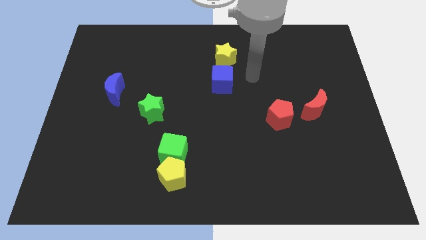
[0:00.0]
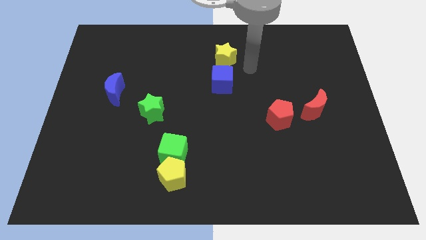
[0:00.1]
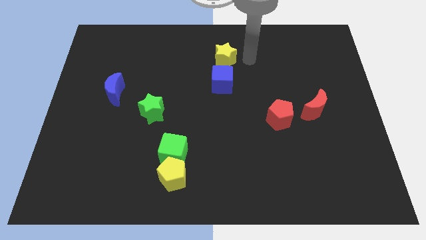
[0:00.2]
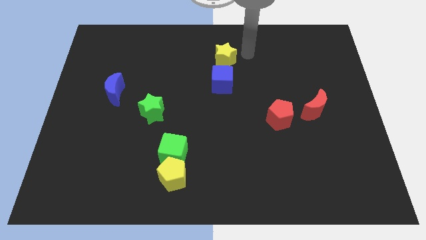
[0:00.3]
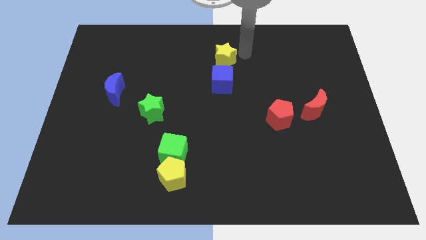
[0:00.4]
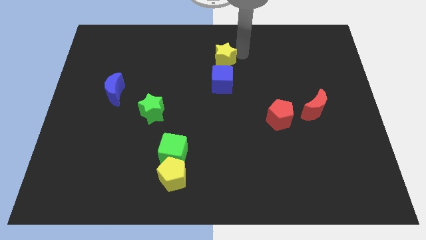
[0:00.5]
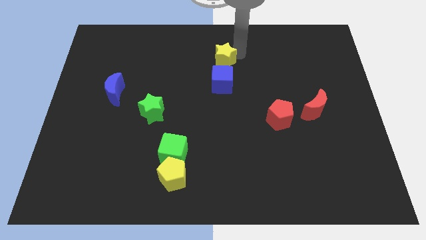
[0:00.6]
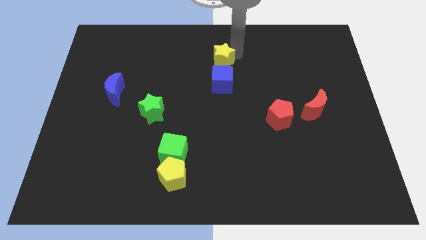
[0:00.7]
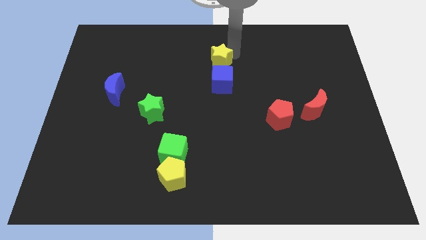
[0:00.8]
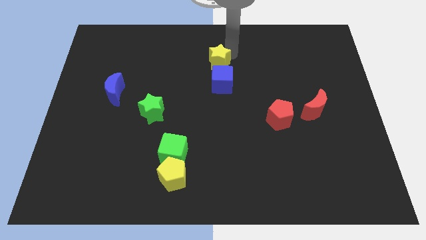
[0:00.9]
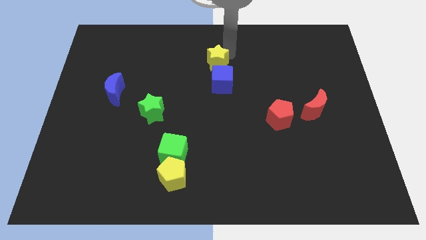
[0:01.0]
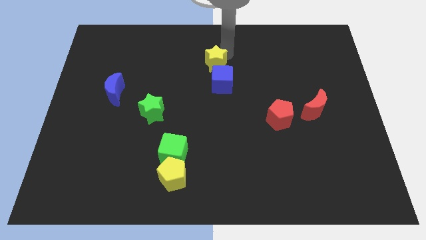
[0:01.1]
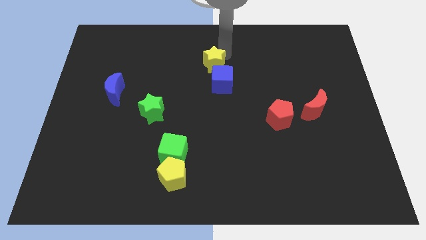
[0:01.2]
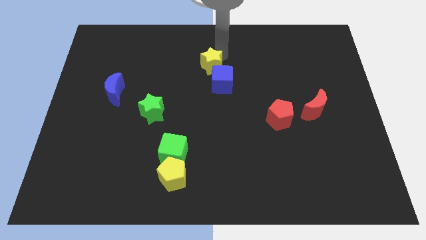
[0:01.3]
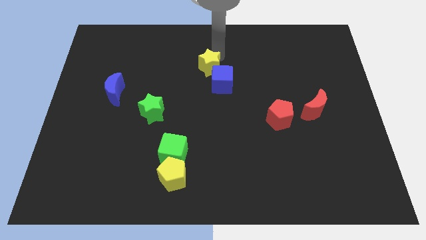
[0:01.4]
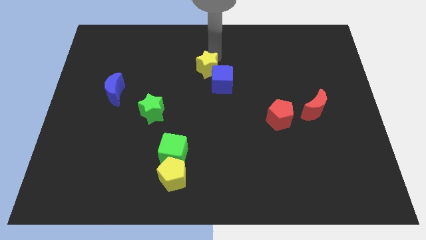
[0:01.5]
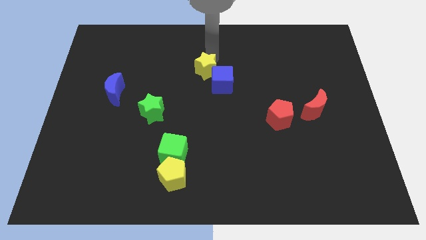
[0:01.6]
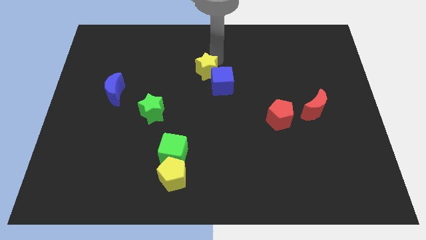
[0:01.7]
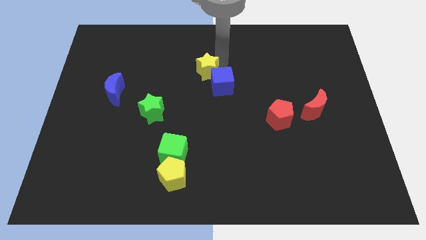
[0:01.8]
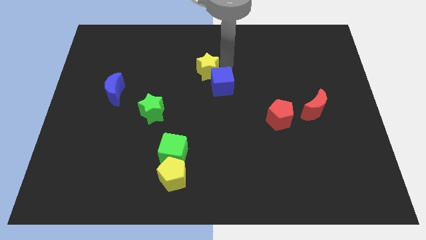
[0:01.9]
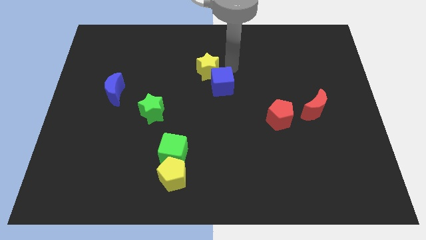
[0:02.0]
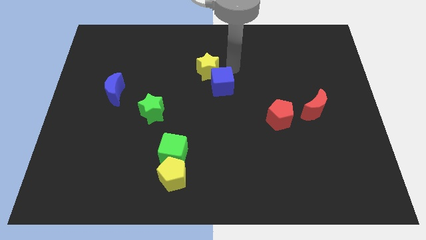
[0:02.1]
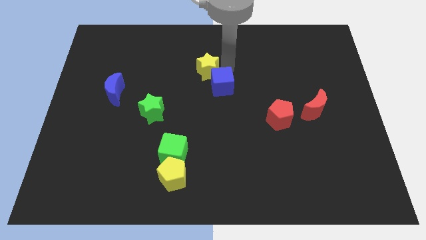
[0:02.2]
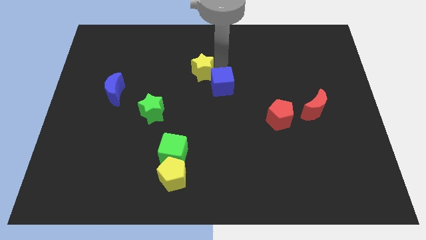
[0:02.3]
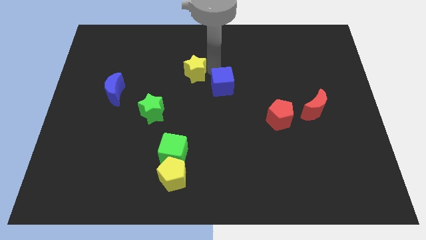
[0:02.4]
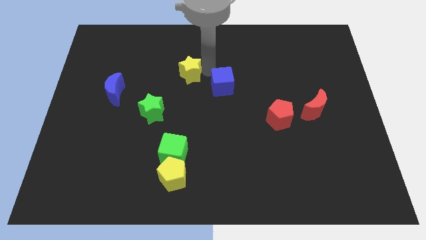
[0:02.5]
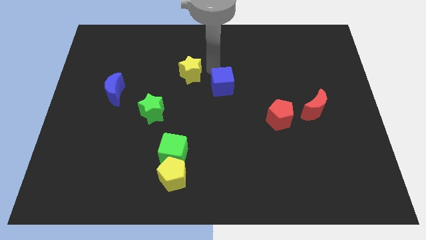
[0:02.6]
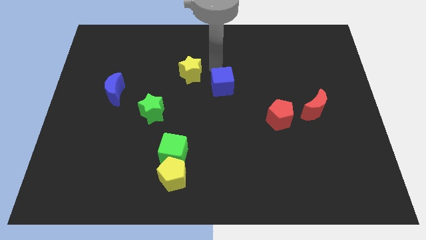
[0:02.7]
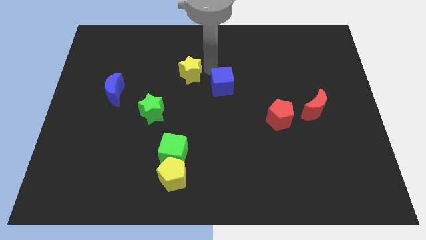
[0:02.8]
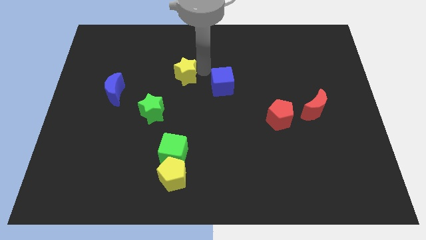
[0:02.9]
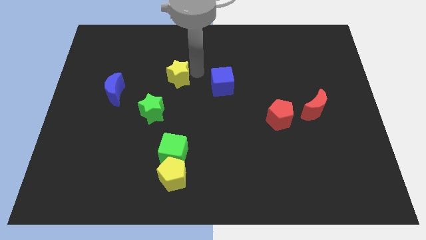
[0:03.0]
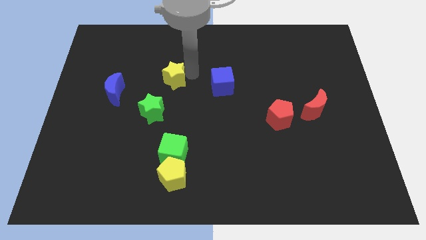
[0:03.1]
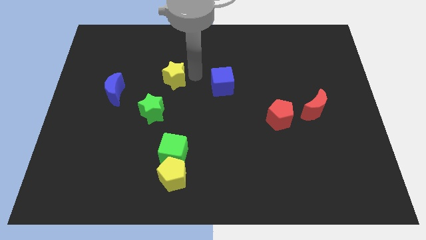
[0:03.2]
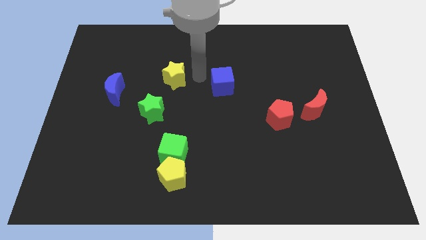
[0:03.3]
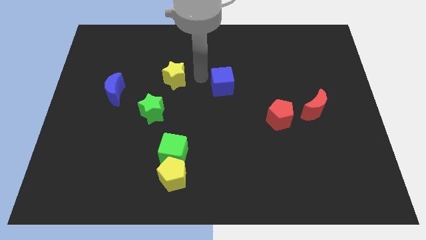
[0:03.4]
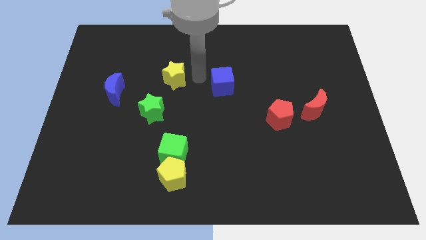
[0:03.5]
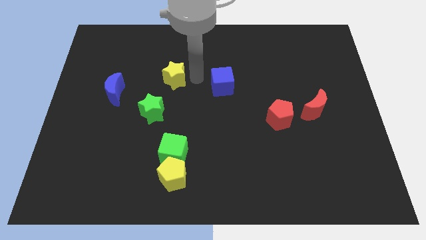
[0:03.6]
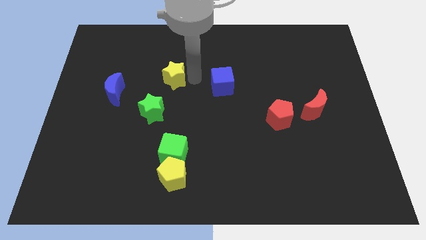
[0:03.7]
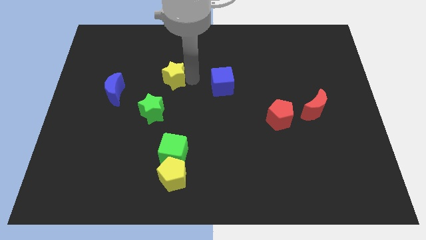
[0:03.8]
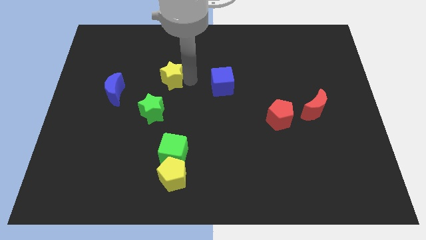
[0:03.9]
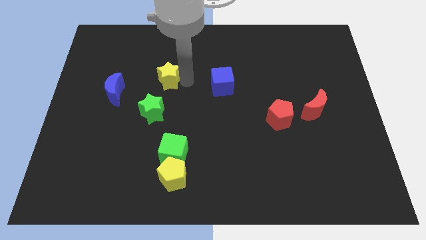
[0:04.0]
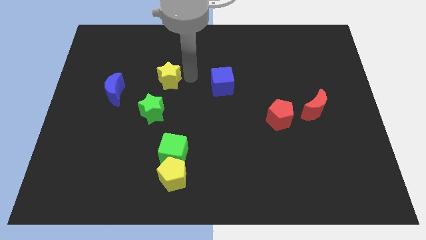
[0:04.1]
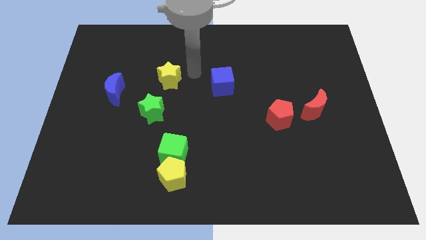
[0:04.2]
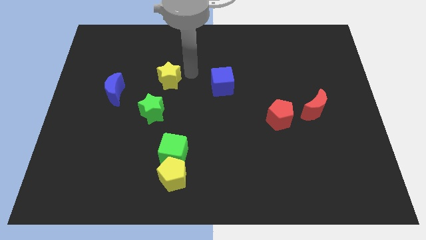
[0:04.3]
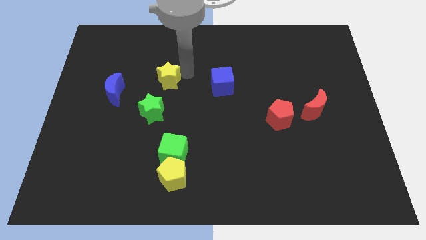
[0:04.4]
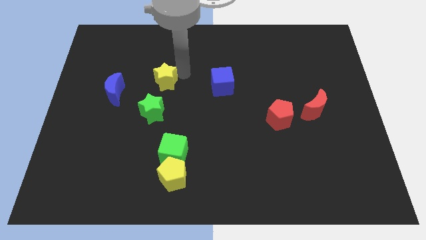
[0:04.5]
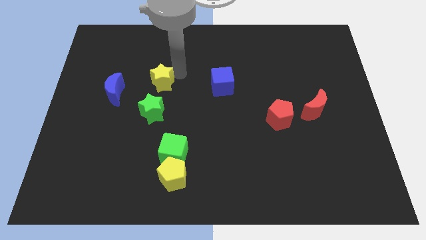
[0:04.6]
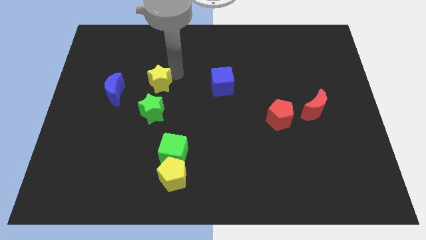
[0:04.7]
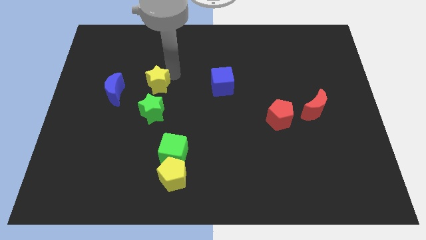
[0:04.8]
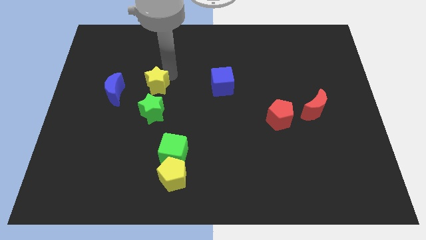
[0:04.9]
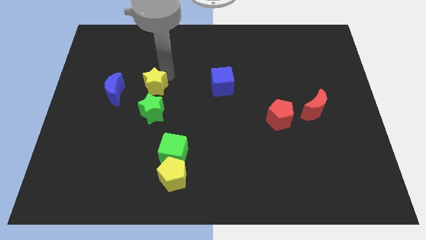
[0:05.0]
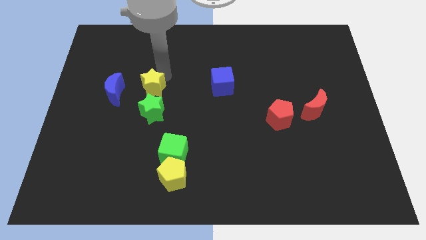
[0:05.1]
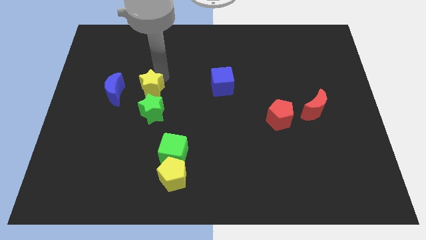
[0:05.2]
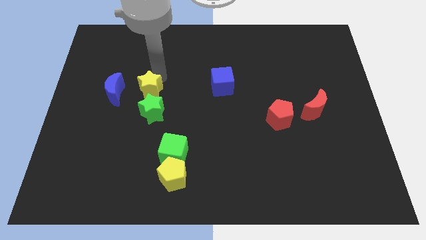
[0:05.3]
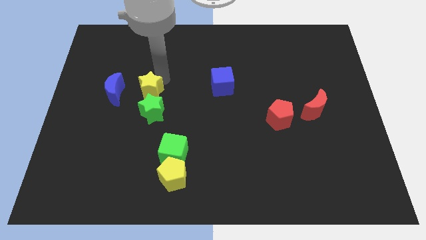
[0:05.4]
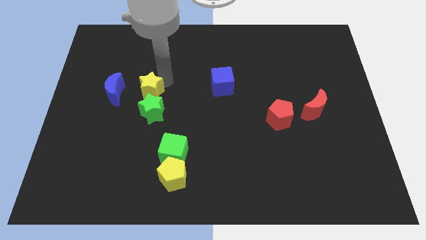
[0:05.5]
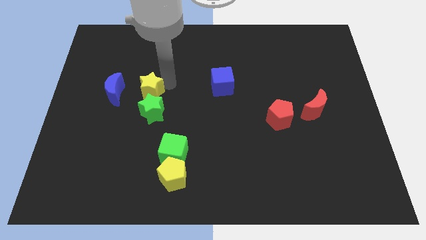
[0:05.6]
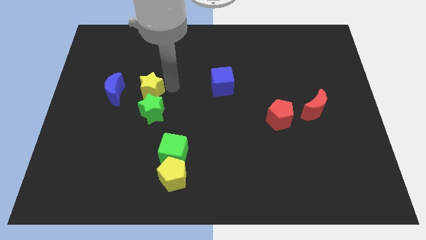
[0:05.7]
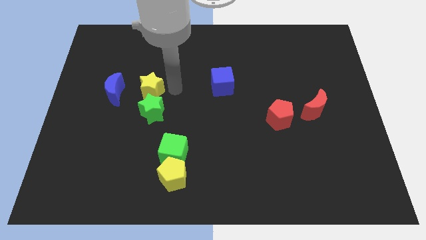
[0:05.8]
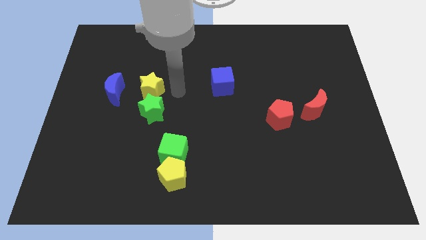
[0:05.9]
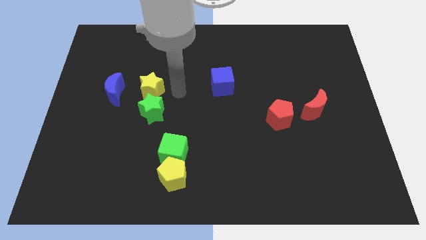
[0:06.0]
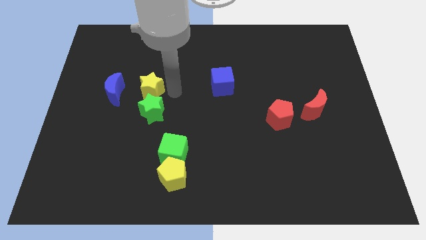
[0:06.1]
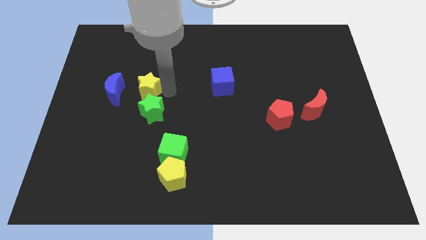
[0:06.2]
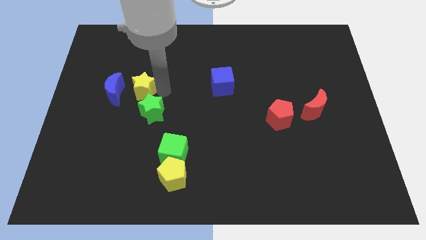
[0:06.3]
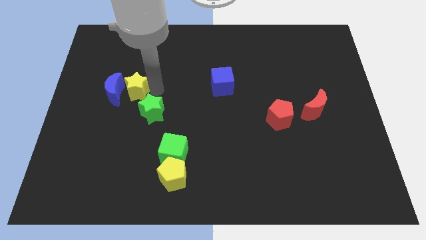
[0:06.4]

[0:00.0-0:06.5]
move the yellow star next to the blue moon
